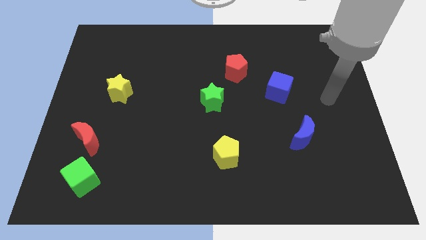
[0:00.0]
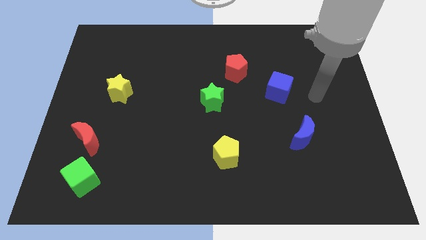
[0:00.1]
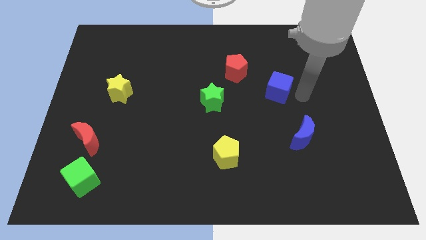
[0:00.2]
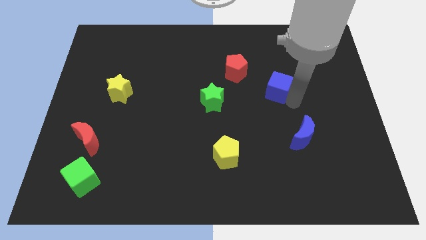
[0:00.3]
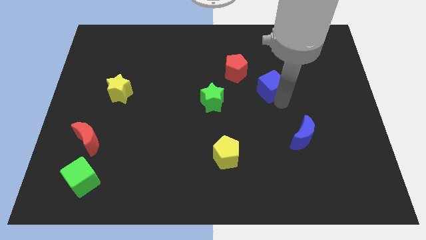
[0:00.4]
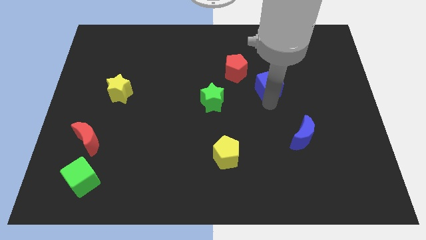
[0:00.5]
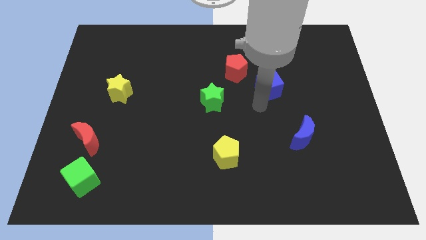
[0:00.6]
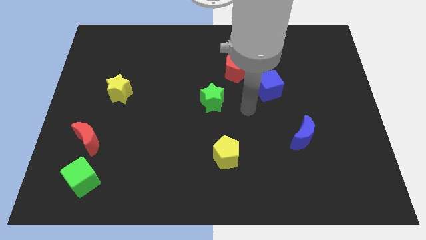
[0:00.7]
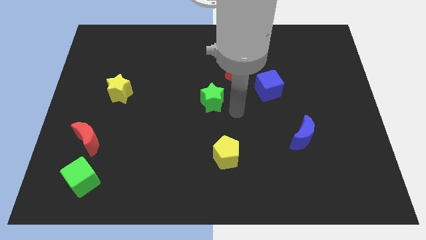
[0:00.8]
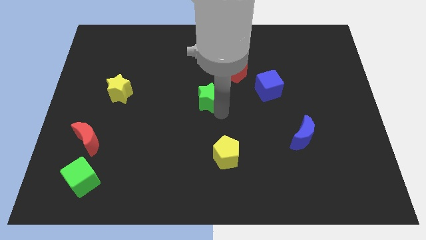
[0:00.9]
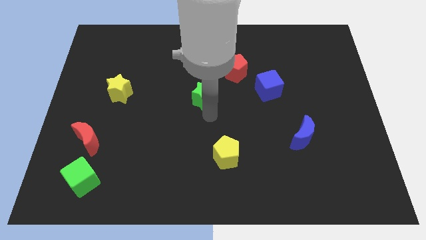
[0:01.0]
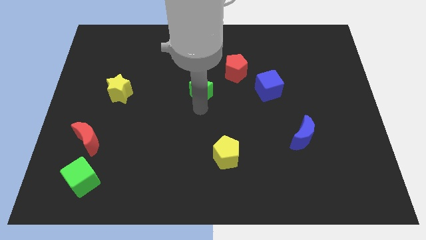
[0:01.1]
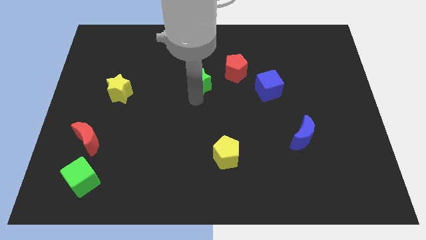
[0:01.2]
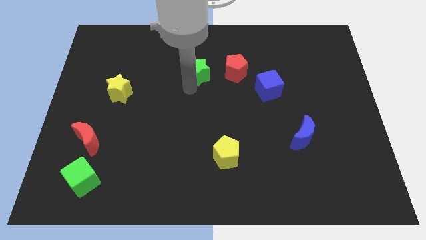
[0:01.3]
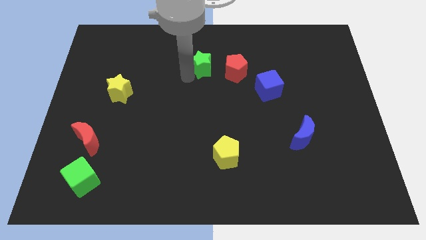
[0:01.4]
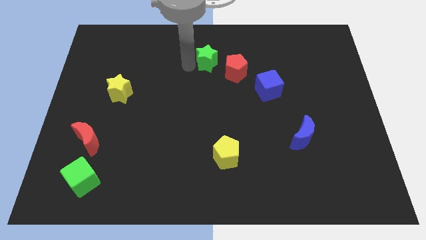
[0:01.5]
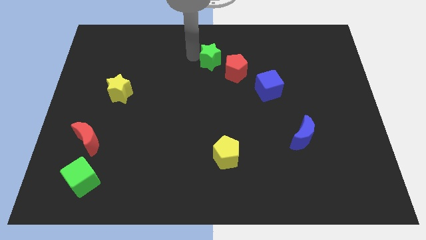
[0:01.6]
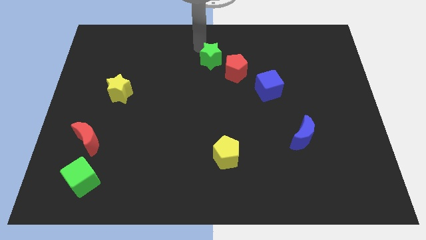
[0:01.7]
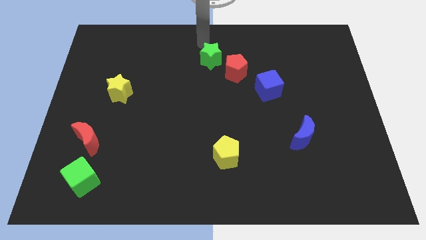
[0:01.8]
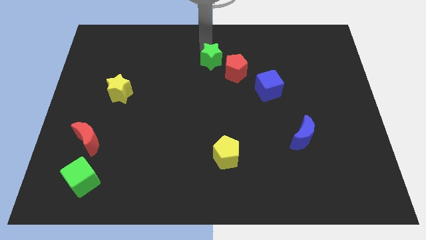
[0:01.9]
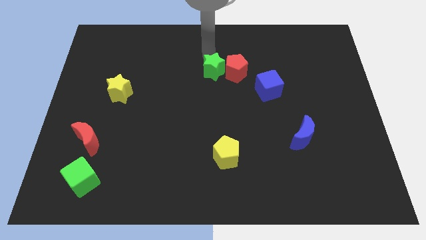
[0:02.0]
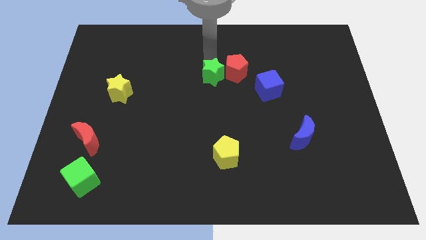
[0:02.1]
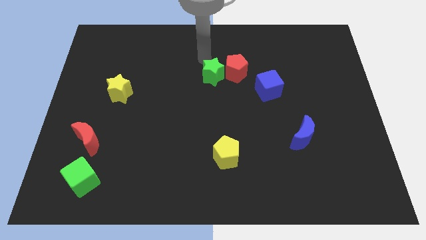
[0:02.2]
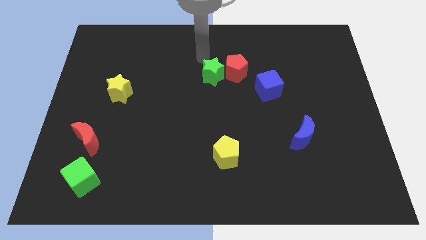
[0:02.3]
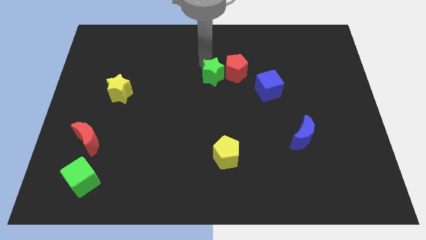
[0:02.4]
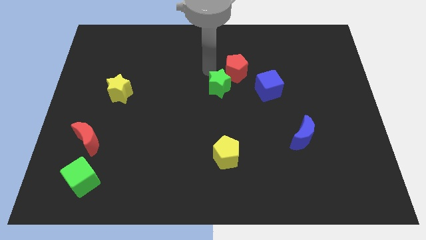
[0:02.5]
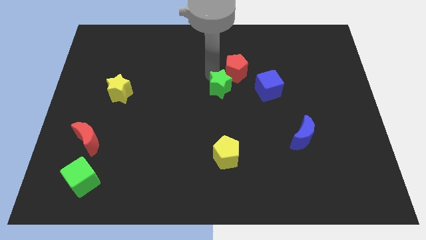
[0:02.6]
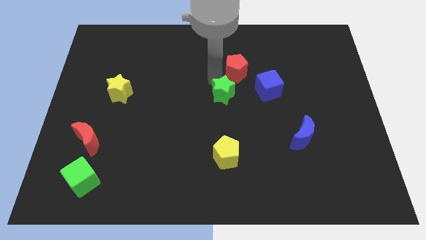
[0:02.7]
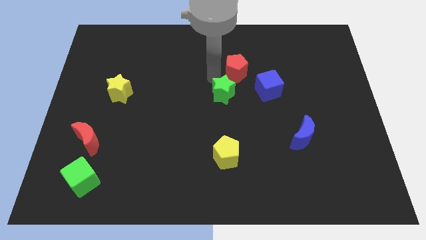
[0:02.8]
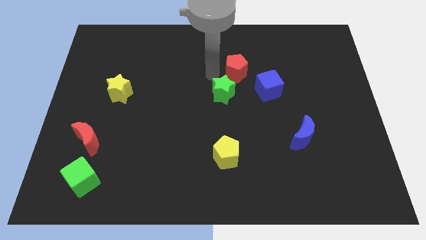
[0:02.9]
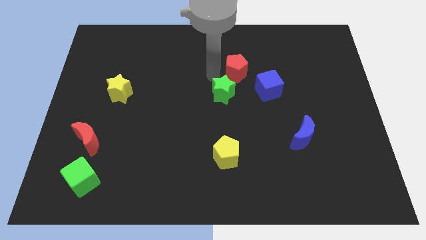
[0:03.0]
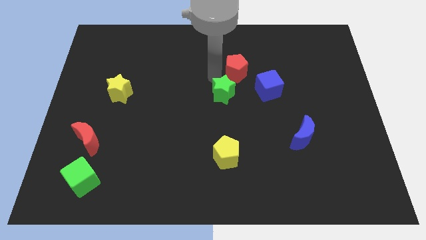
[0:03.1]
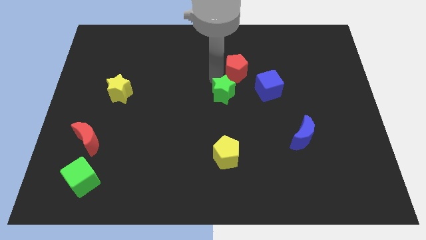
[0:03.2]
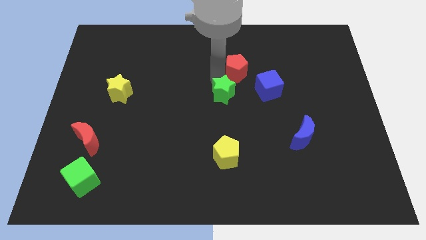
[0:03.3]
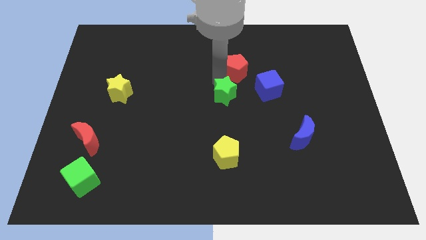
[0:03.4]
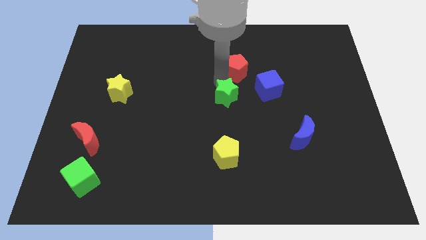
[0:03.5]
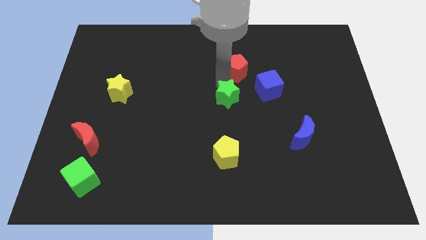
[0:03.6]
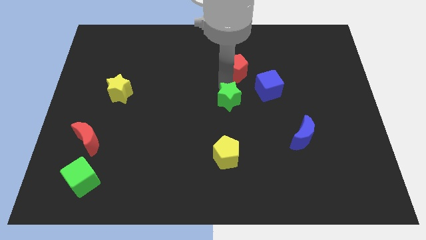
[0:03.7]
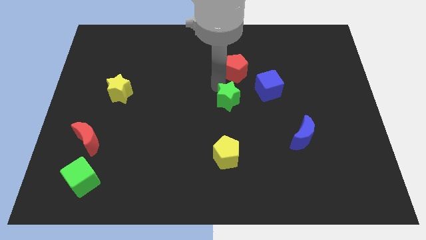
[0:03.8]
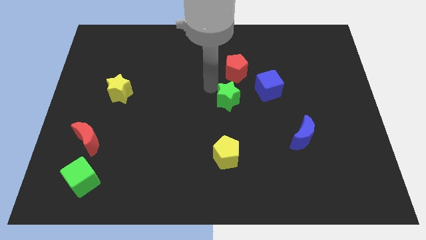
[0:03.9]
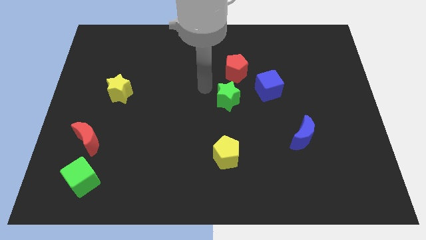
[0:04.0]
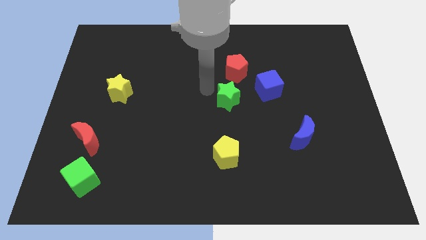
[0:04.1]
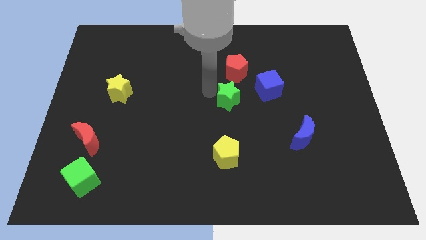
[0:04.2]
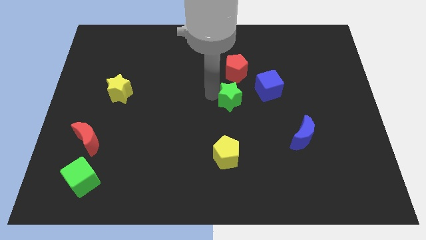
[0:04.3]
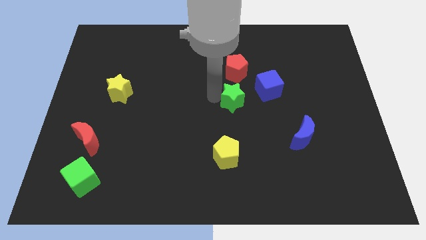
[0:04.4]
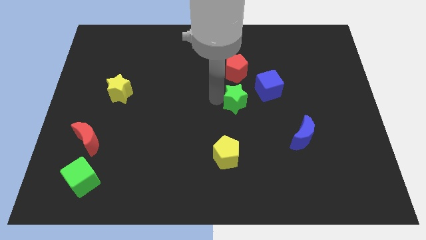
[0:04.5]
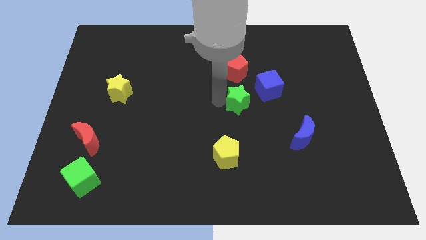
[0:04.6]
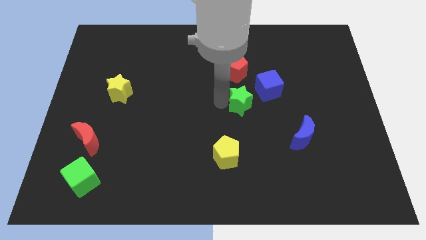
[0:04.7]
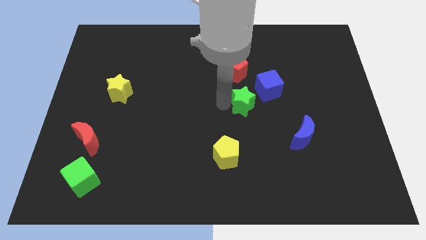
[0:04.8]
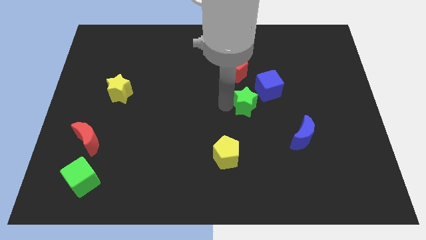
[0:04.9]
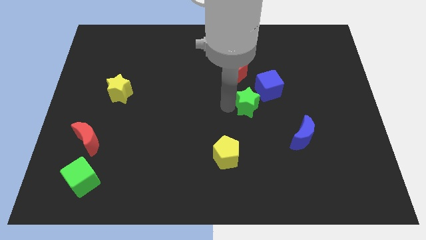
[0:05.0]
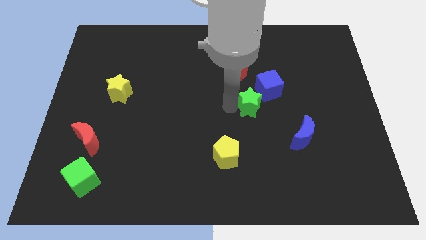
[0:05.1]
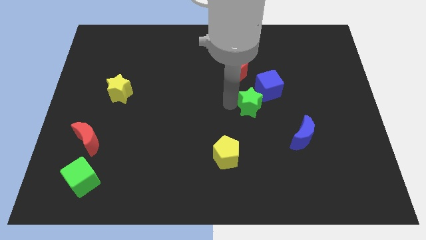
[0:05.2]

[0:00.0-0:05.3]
put the green star to the bottom of the blue cube

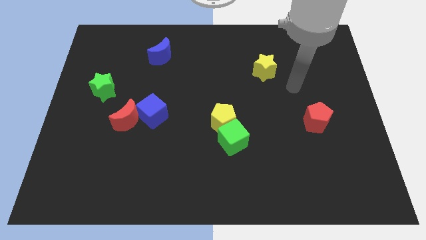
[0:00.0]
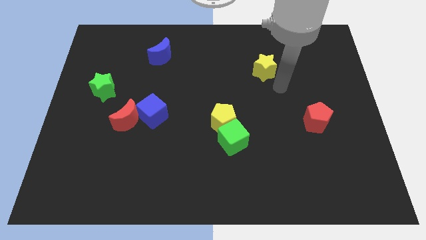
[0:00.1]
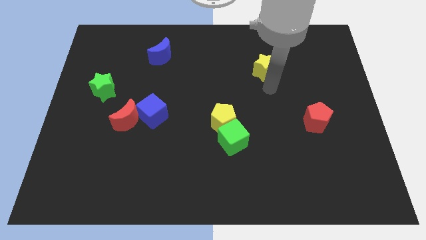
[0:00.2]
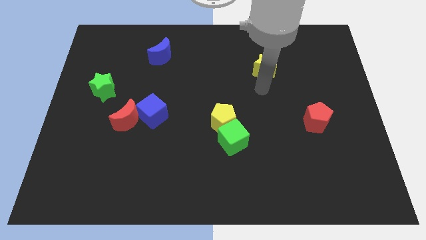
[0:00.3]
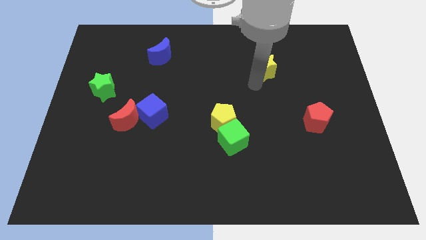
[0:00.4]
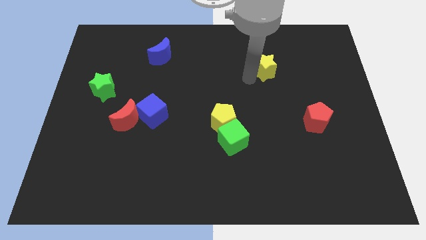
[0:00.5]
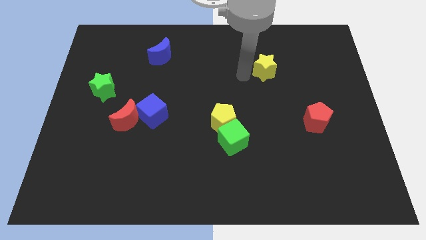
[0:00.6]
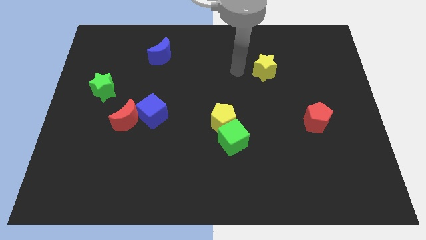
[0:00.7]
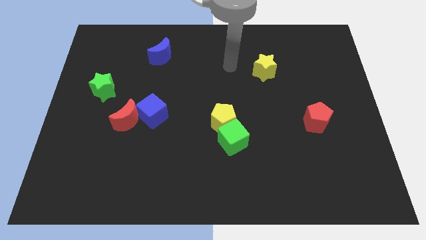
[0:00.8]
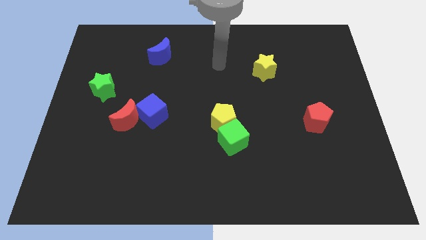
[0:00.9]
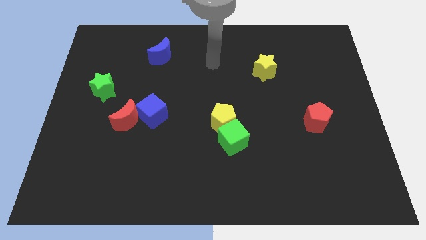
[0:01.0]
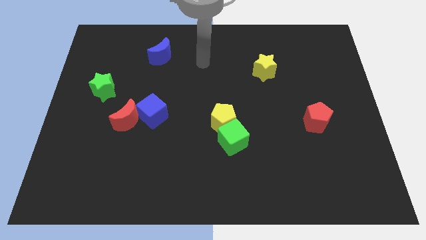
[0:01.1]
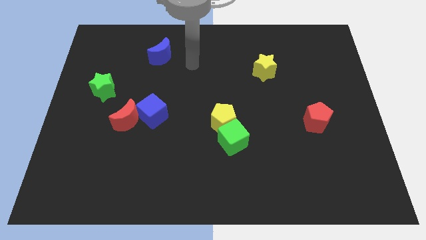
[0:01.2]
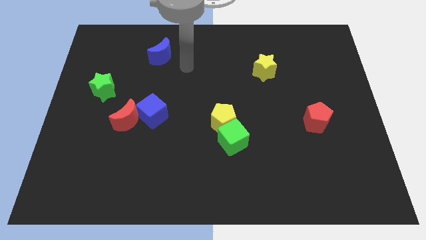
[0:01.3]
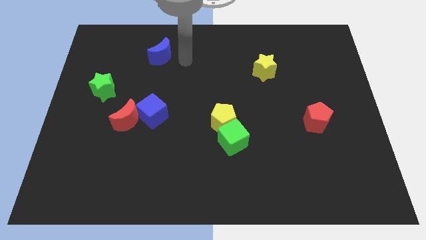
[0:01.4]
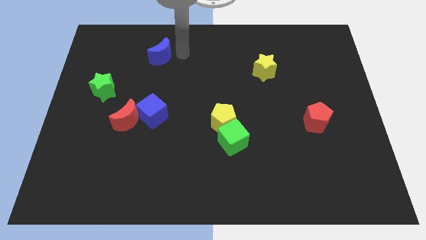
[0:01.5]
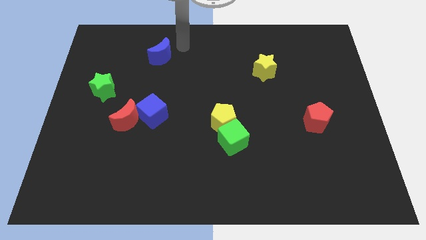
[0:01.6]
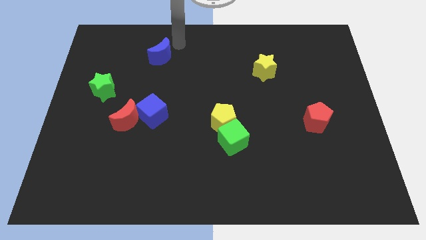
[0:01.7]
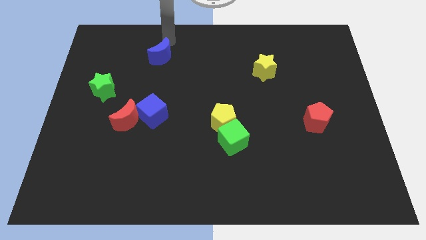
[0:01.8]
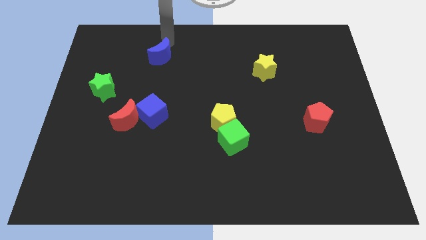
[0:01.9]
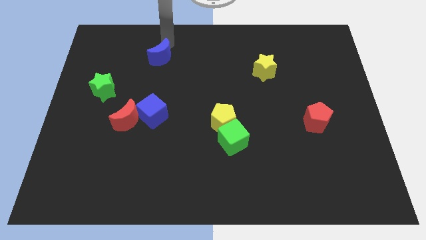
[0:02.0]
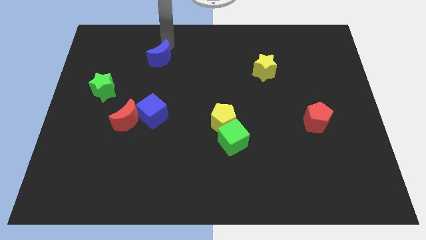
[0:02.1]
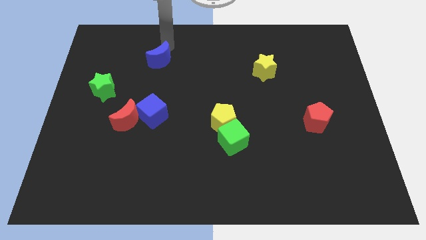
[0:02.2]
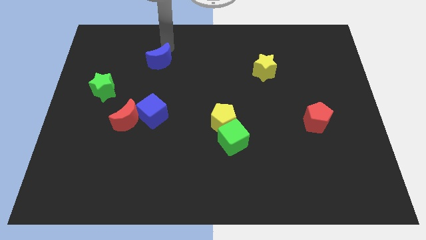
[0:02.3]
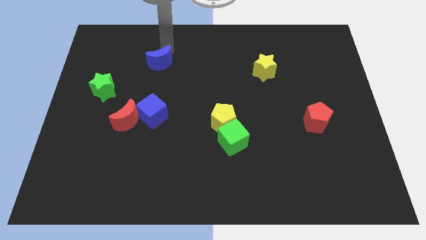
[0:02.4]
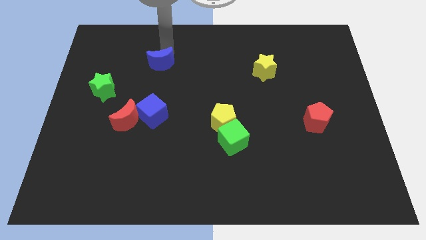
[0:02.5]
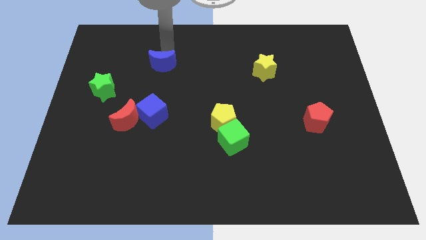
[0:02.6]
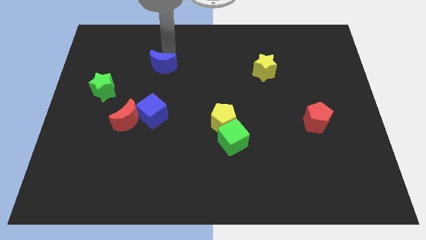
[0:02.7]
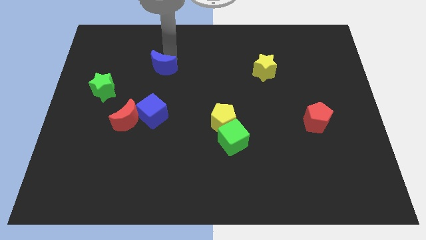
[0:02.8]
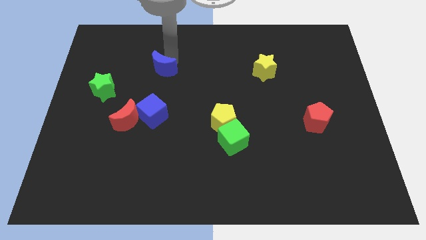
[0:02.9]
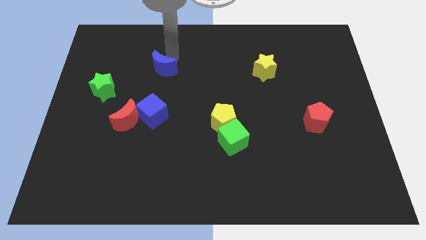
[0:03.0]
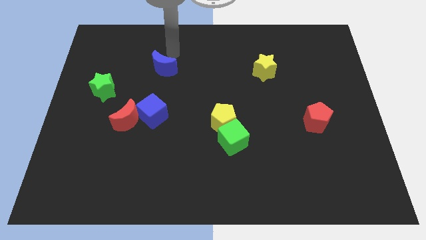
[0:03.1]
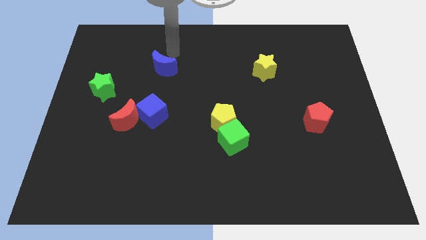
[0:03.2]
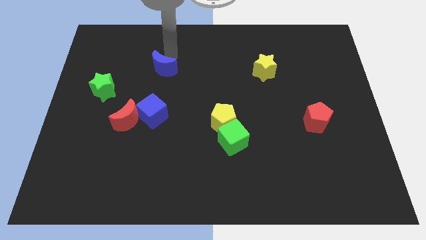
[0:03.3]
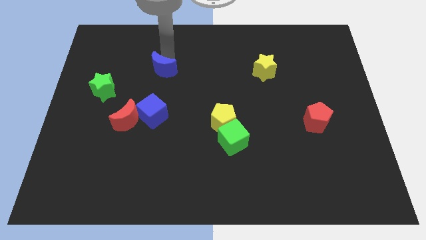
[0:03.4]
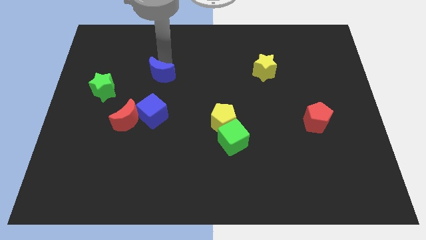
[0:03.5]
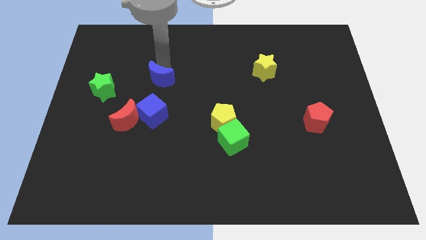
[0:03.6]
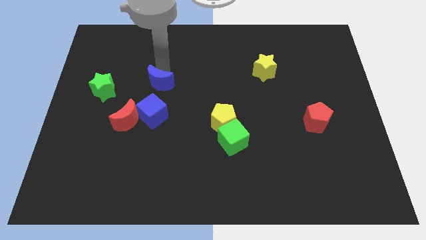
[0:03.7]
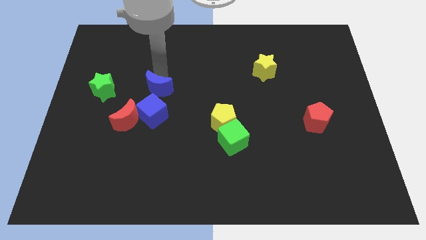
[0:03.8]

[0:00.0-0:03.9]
put the blue moon diagonally up and to the right of the red moon
